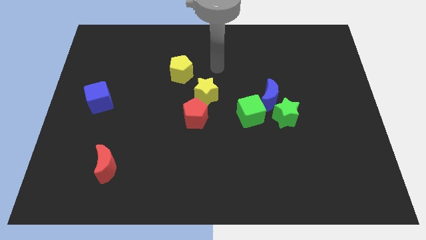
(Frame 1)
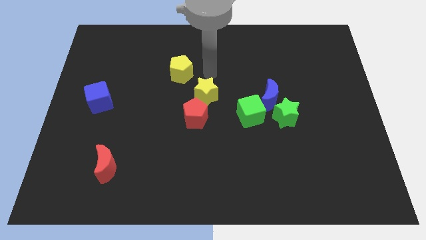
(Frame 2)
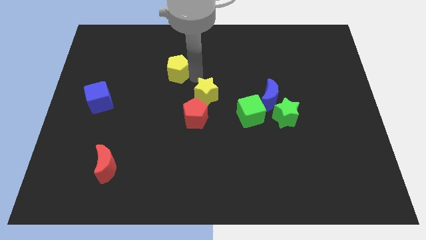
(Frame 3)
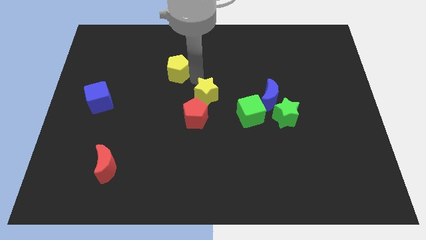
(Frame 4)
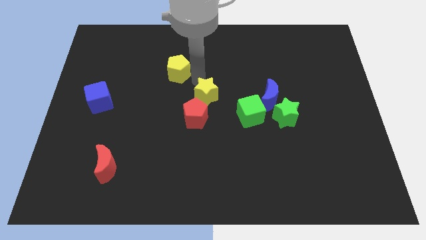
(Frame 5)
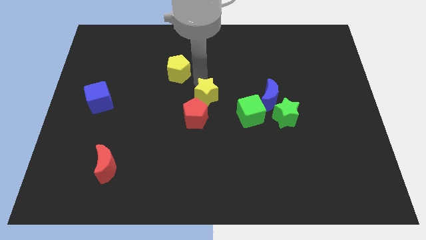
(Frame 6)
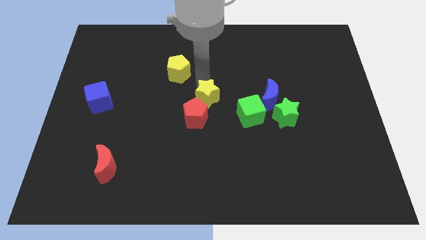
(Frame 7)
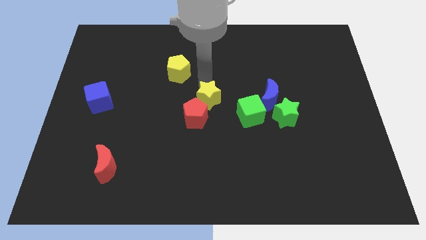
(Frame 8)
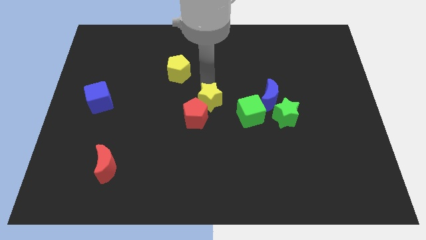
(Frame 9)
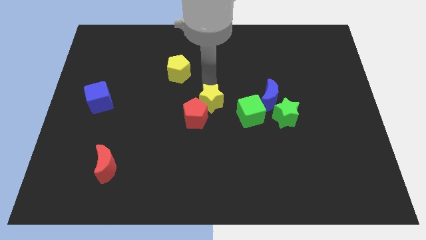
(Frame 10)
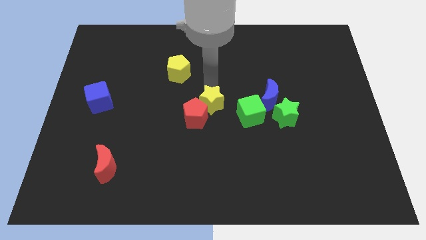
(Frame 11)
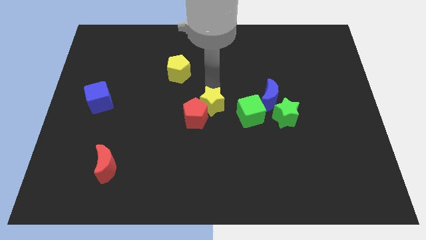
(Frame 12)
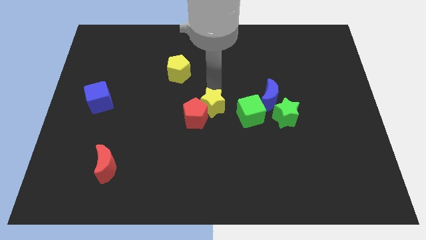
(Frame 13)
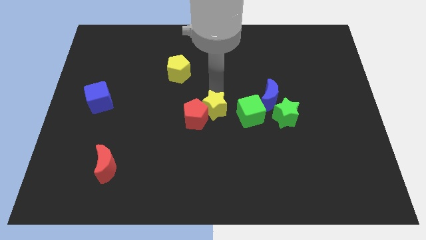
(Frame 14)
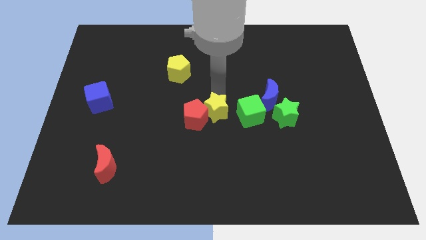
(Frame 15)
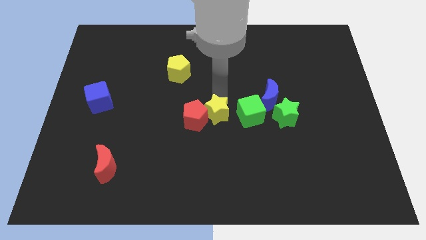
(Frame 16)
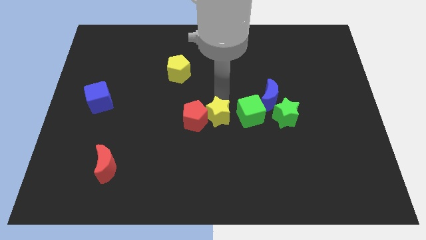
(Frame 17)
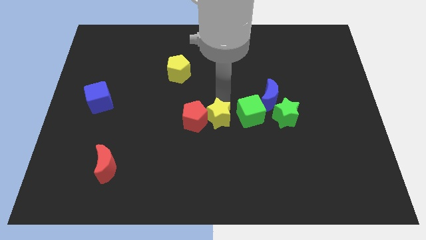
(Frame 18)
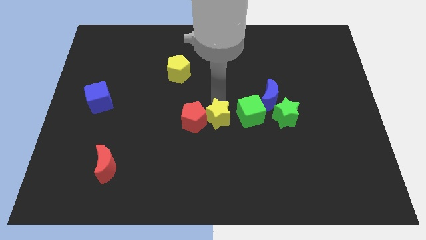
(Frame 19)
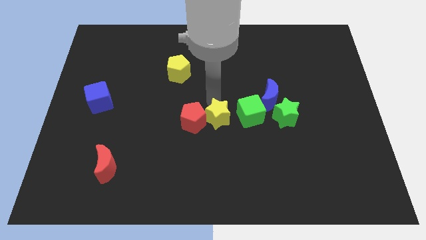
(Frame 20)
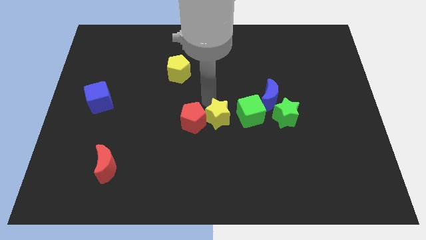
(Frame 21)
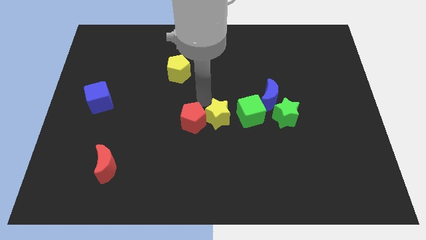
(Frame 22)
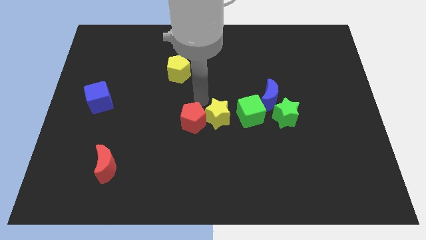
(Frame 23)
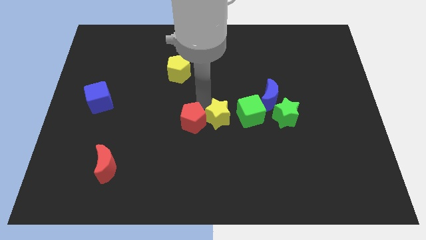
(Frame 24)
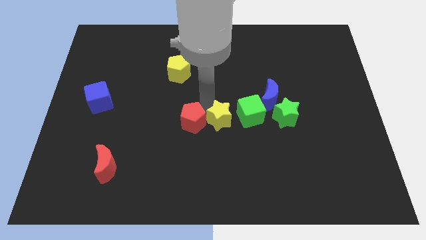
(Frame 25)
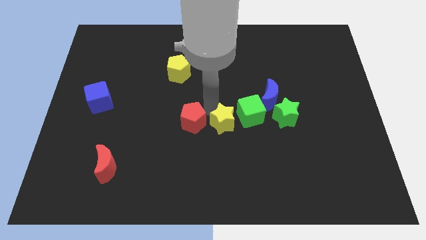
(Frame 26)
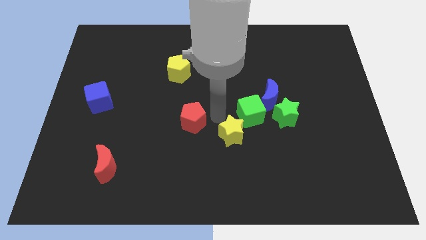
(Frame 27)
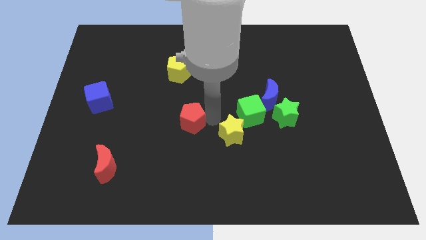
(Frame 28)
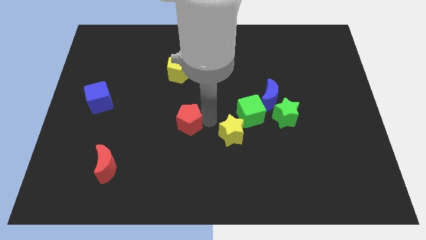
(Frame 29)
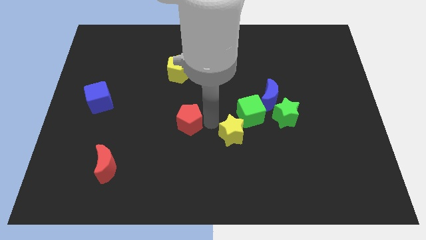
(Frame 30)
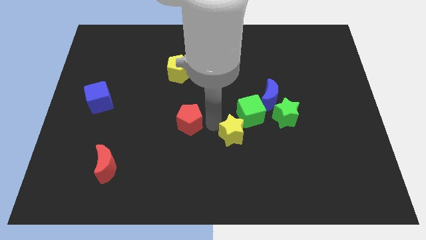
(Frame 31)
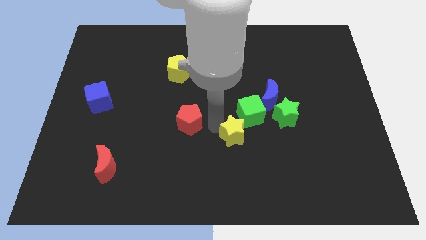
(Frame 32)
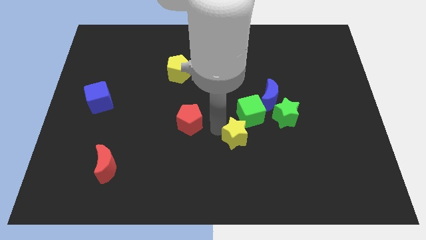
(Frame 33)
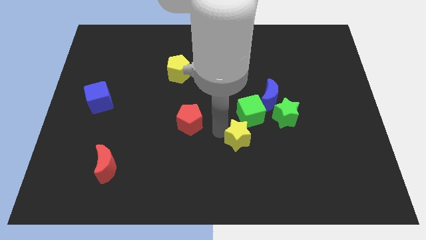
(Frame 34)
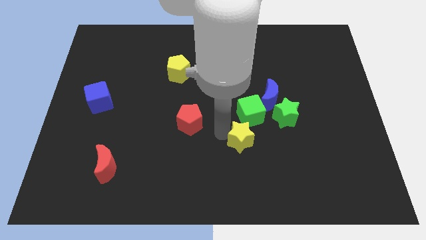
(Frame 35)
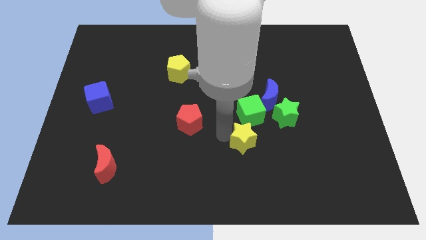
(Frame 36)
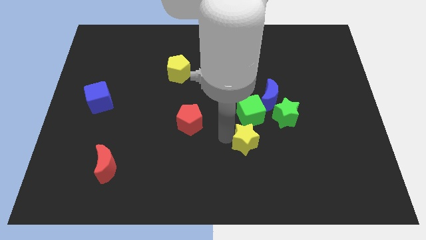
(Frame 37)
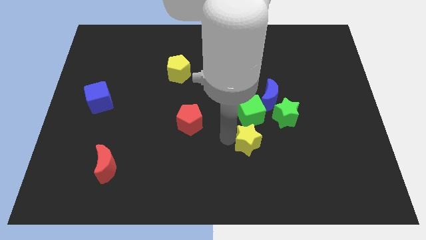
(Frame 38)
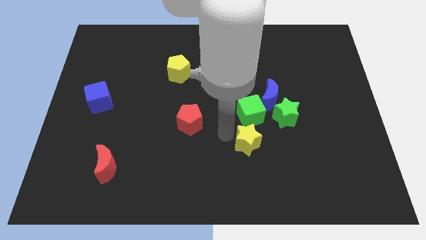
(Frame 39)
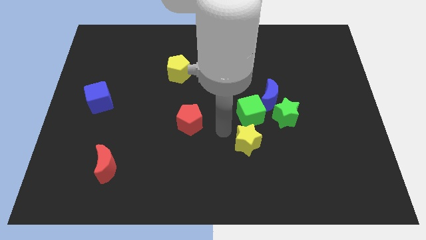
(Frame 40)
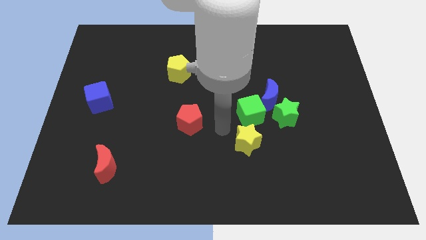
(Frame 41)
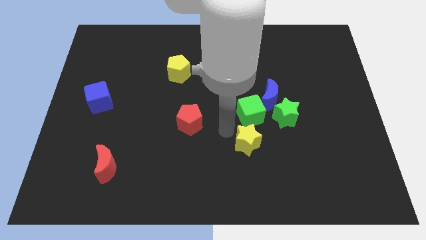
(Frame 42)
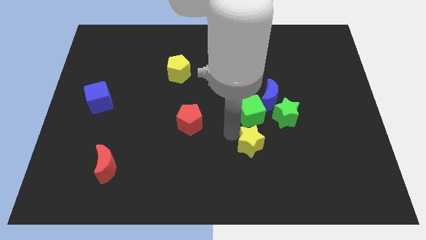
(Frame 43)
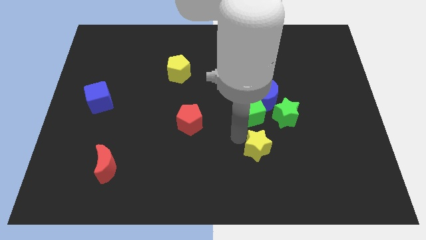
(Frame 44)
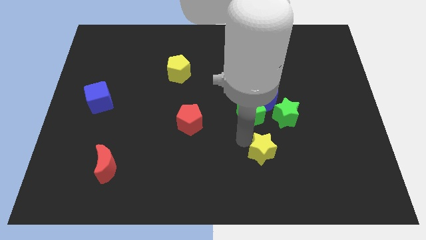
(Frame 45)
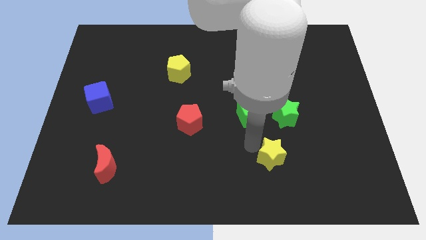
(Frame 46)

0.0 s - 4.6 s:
slide the yellow star downwards and right

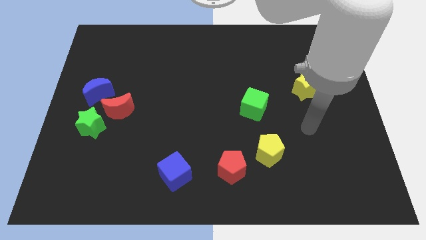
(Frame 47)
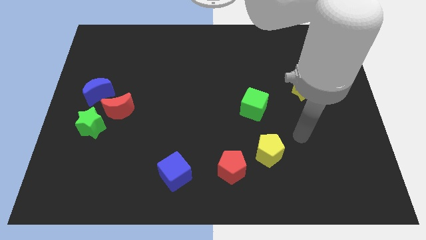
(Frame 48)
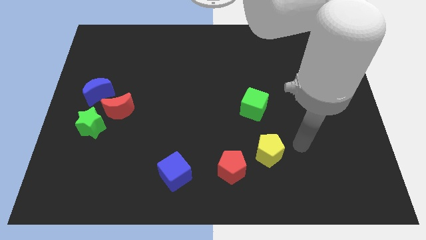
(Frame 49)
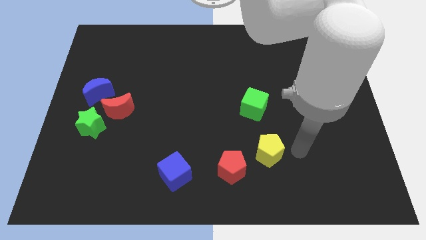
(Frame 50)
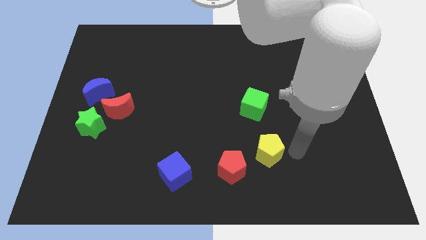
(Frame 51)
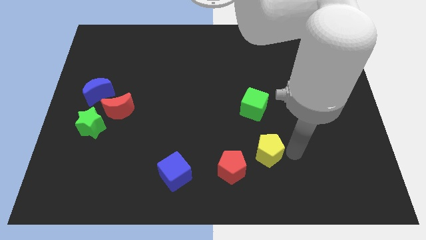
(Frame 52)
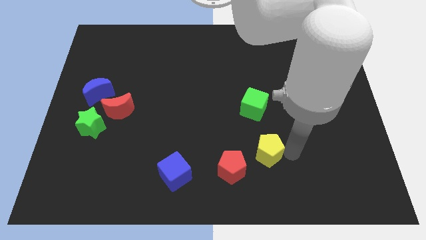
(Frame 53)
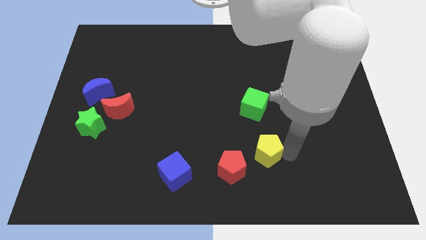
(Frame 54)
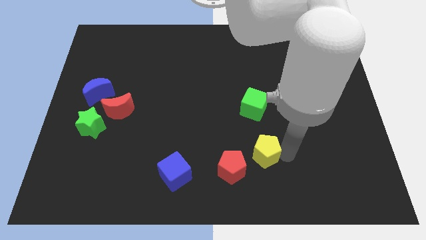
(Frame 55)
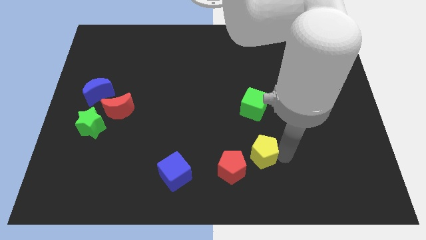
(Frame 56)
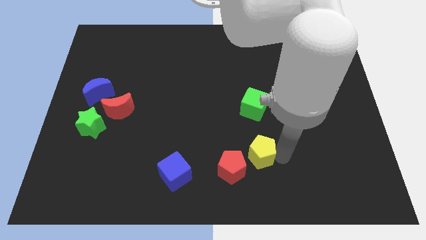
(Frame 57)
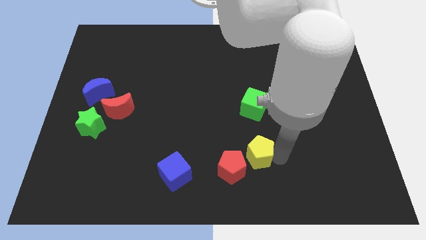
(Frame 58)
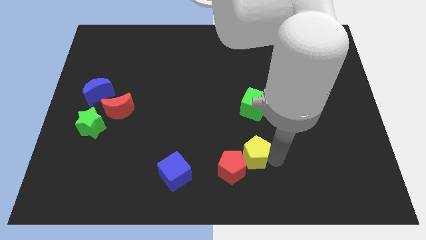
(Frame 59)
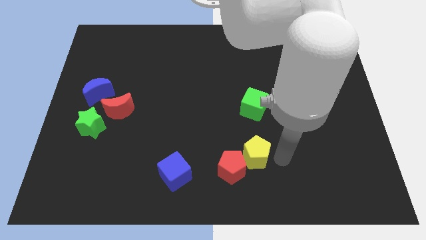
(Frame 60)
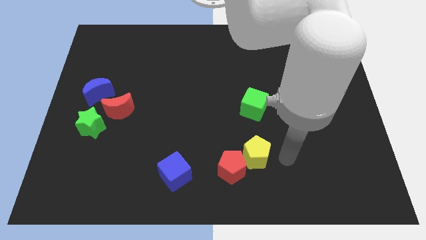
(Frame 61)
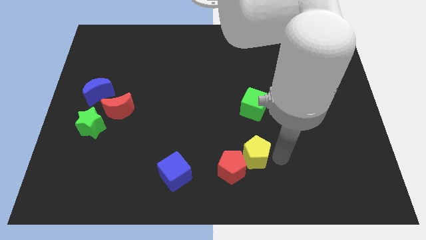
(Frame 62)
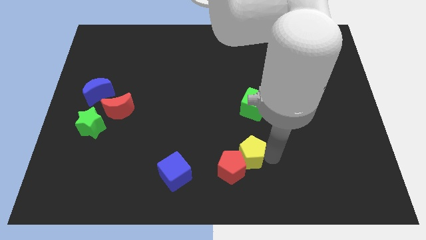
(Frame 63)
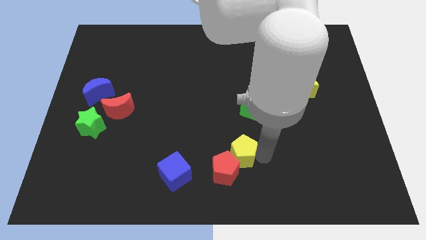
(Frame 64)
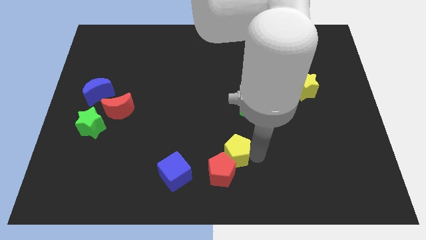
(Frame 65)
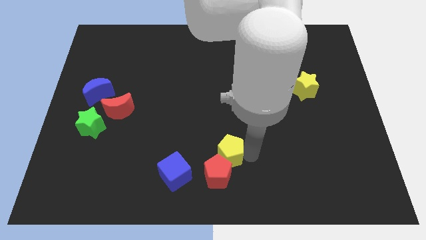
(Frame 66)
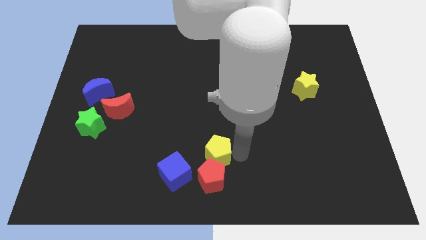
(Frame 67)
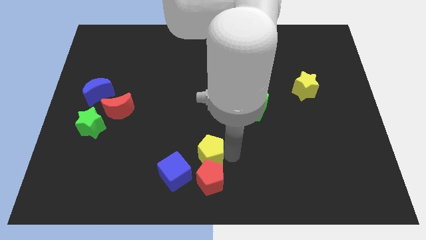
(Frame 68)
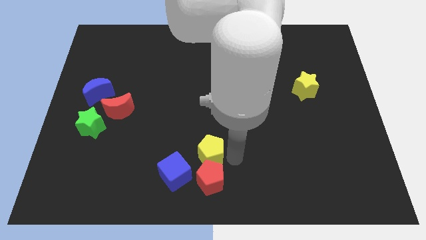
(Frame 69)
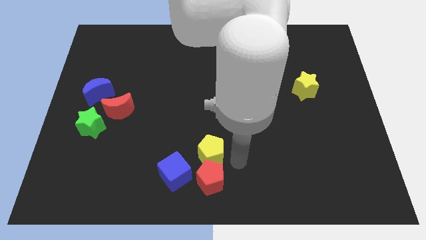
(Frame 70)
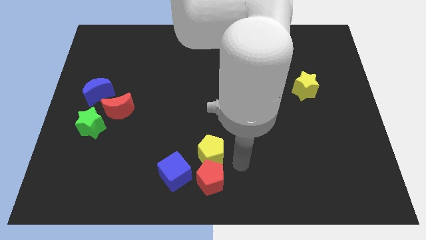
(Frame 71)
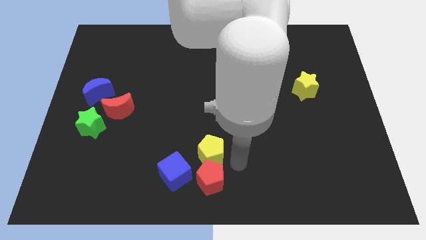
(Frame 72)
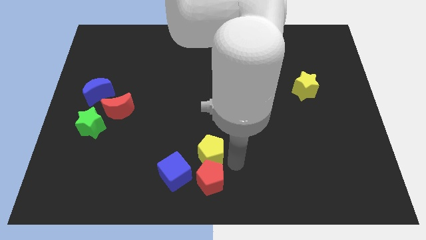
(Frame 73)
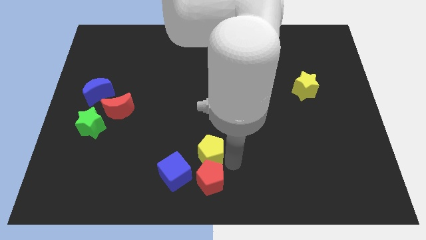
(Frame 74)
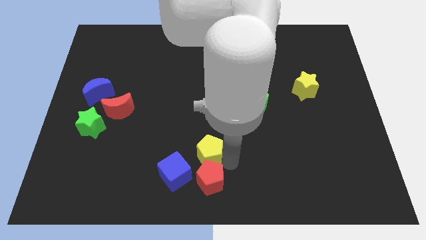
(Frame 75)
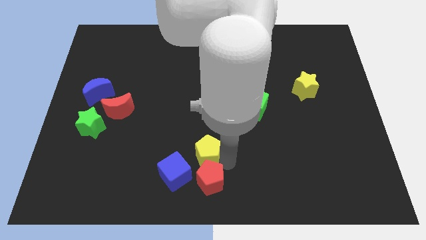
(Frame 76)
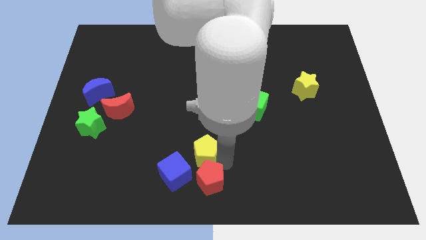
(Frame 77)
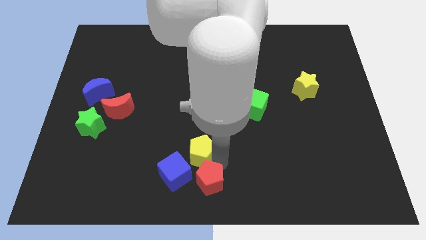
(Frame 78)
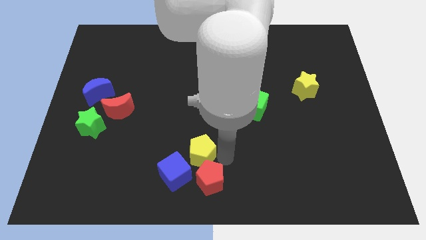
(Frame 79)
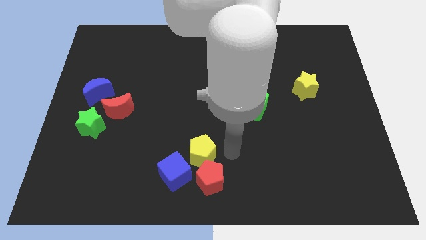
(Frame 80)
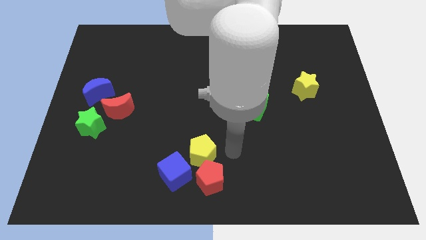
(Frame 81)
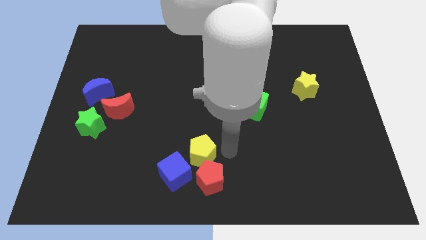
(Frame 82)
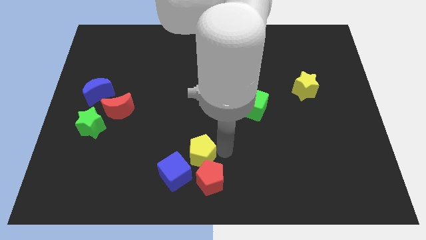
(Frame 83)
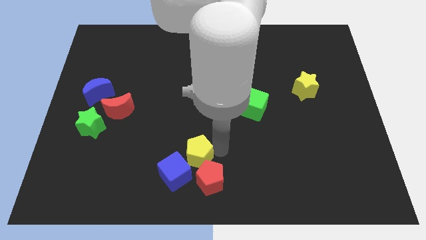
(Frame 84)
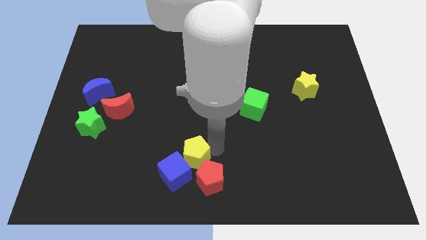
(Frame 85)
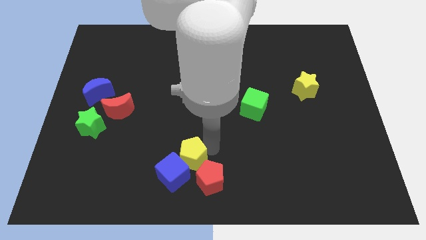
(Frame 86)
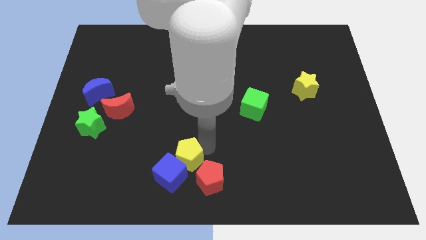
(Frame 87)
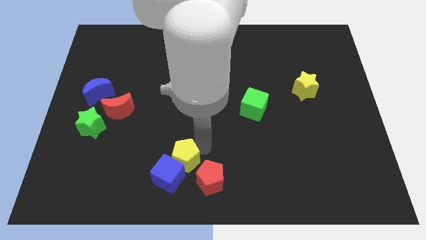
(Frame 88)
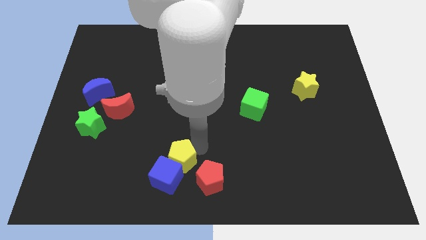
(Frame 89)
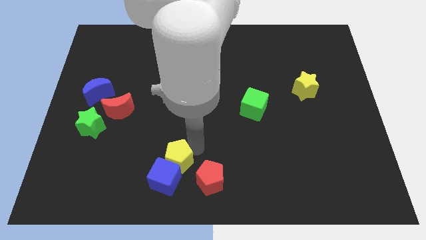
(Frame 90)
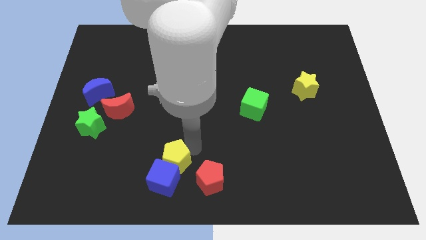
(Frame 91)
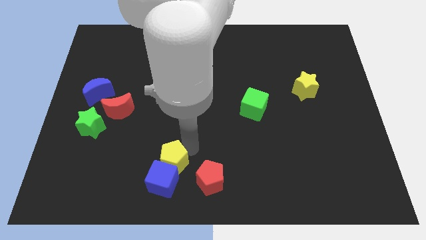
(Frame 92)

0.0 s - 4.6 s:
push the yellow pentagon to the left
